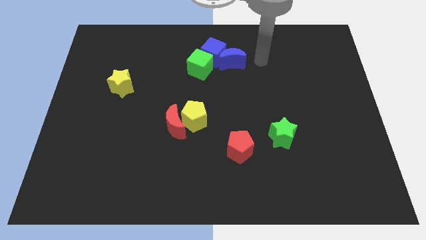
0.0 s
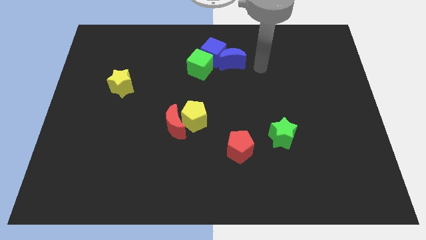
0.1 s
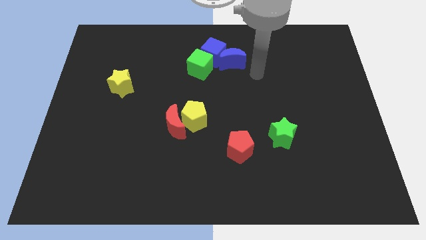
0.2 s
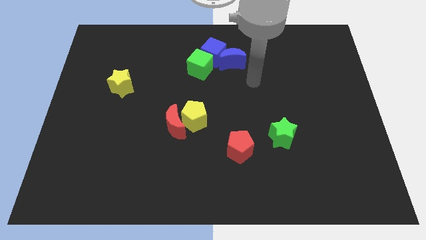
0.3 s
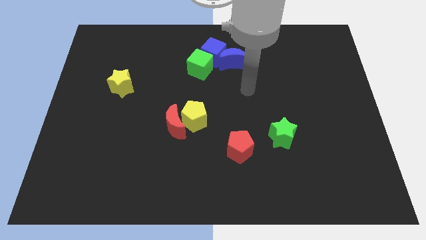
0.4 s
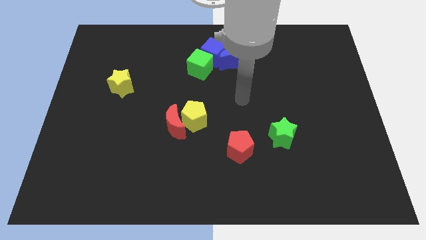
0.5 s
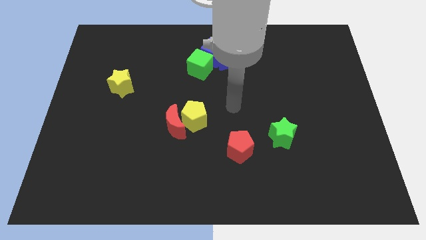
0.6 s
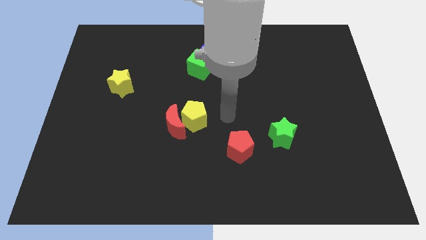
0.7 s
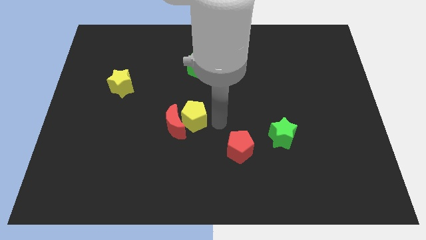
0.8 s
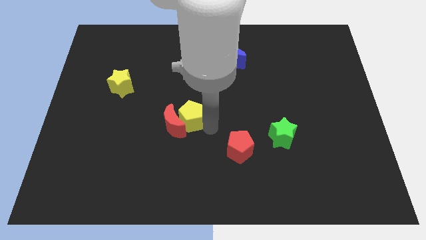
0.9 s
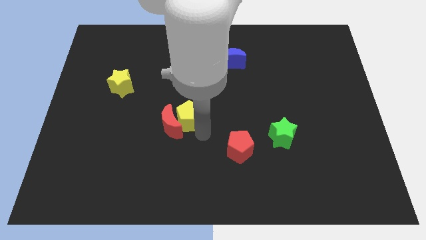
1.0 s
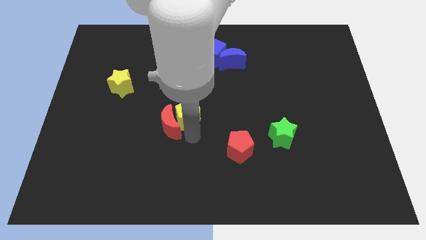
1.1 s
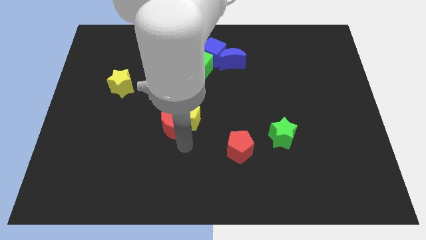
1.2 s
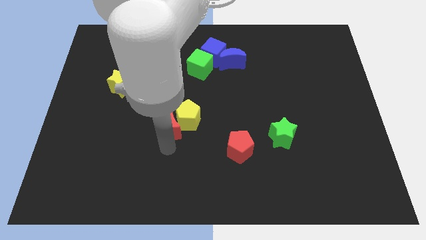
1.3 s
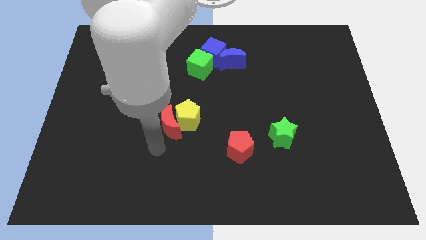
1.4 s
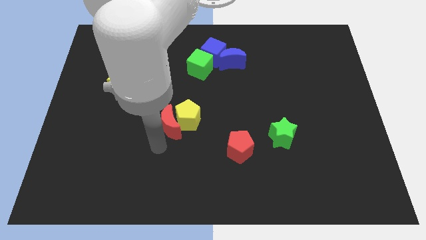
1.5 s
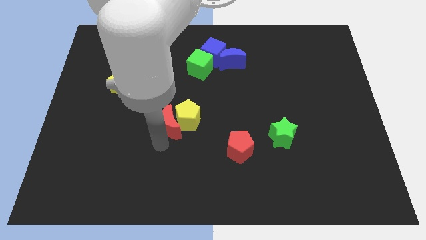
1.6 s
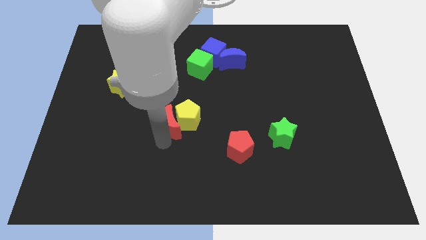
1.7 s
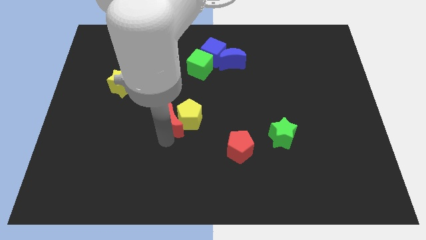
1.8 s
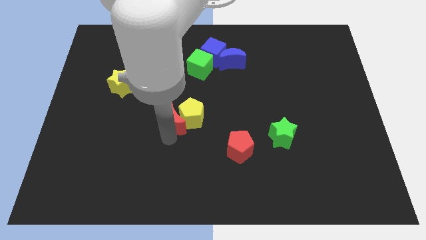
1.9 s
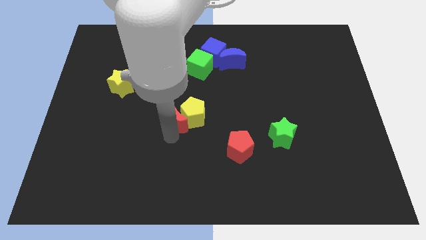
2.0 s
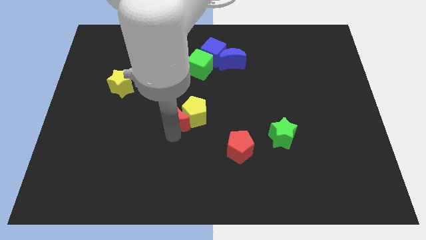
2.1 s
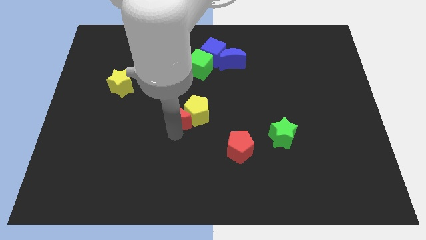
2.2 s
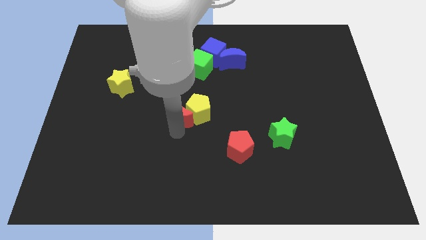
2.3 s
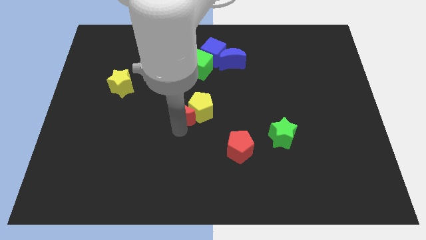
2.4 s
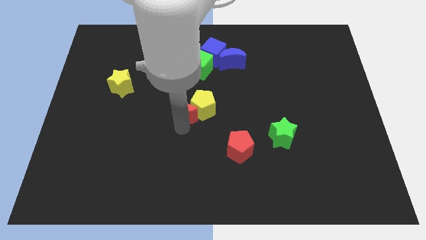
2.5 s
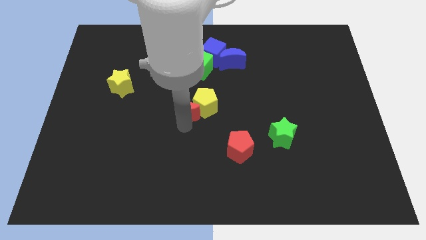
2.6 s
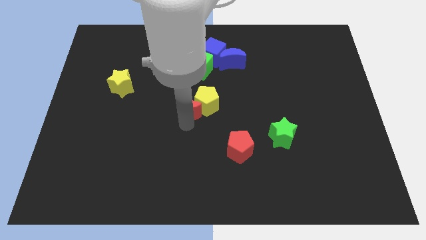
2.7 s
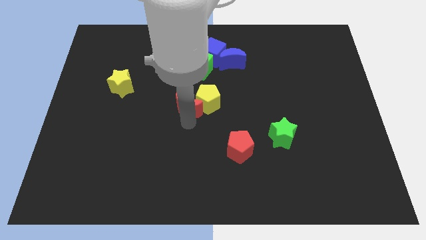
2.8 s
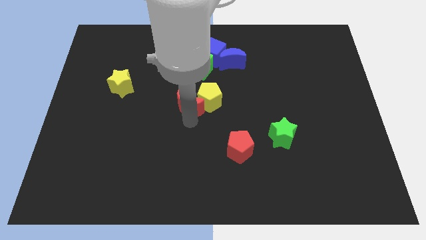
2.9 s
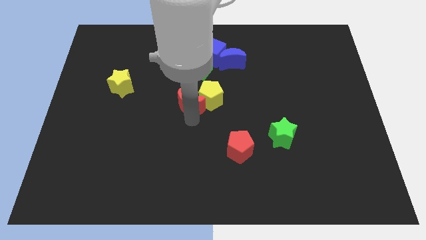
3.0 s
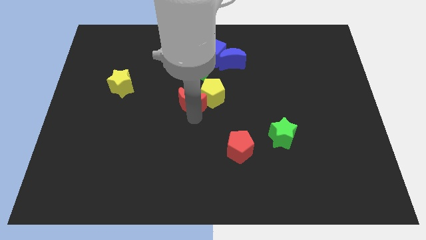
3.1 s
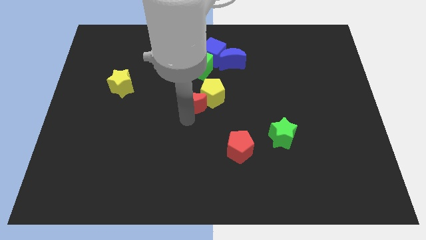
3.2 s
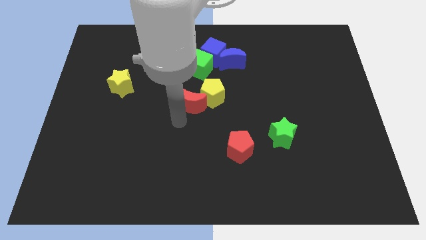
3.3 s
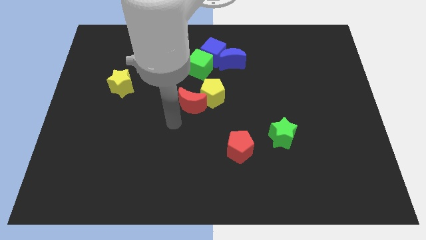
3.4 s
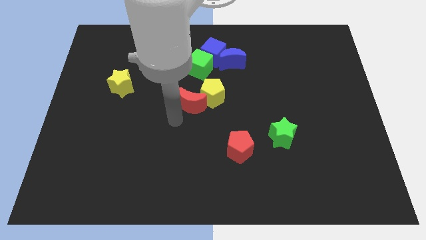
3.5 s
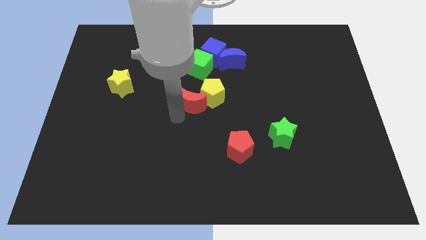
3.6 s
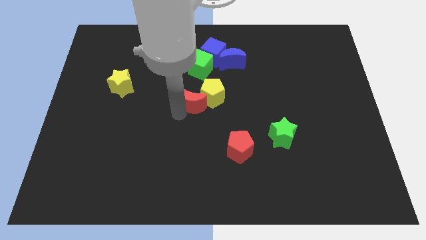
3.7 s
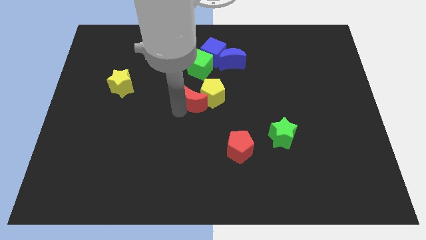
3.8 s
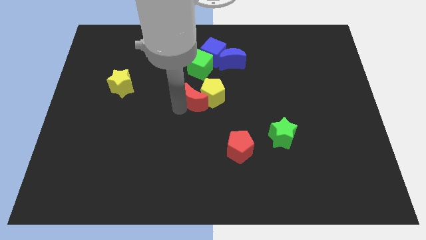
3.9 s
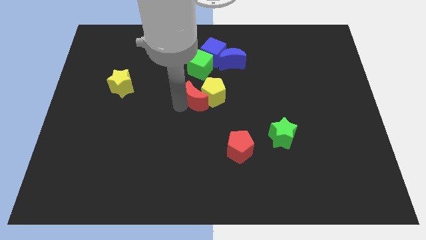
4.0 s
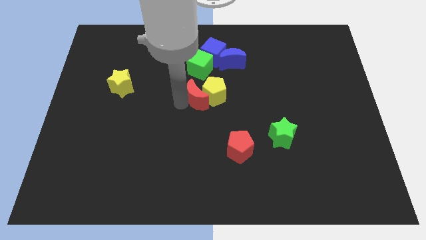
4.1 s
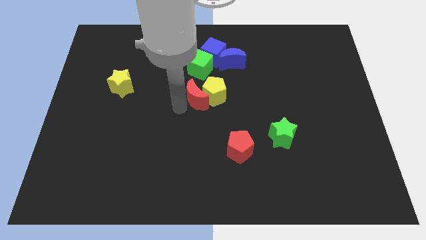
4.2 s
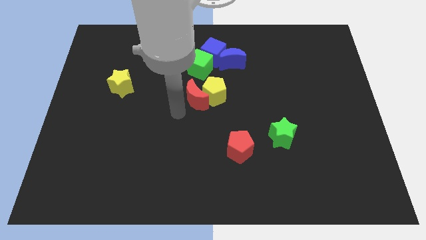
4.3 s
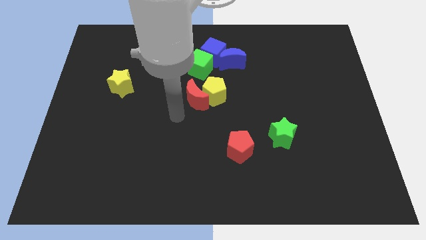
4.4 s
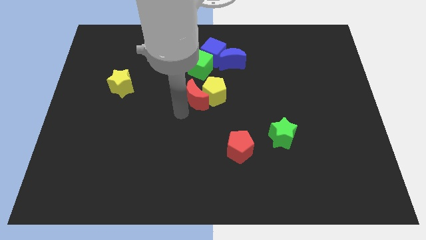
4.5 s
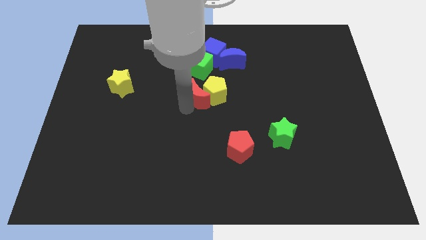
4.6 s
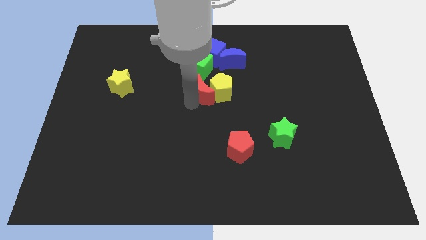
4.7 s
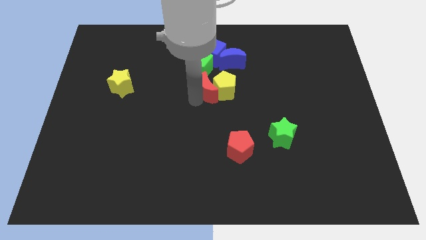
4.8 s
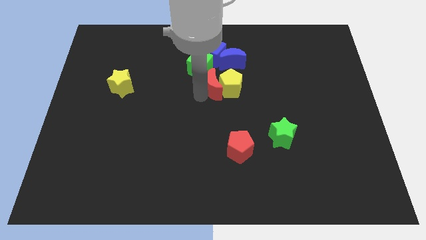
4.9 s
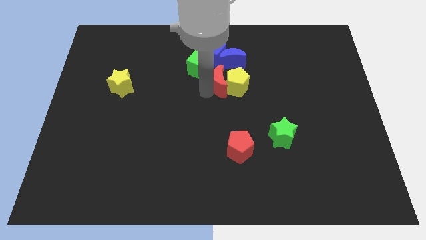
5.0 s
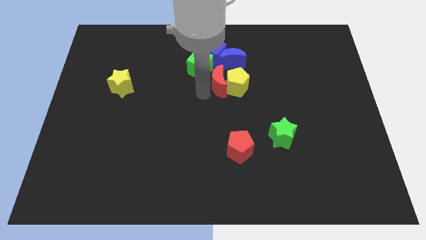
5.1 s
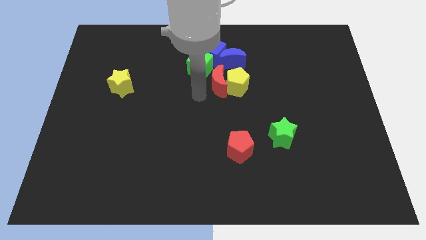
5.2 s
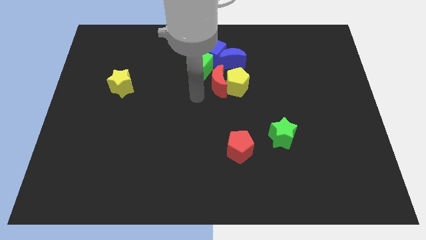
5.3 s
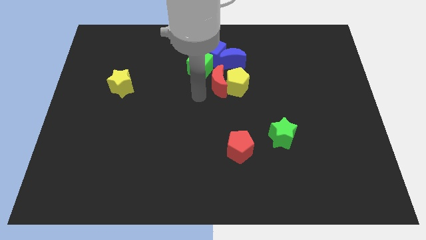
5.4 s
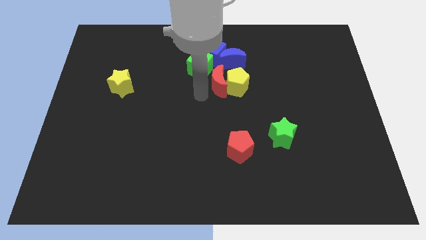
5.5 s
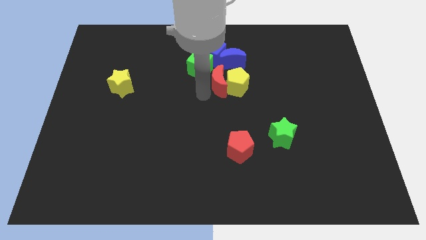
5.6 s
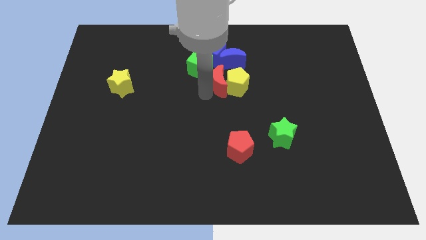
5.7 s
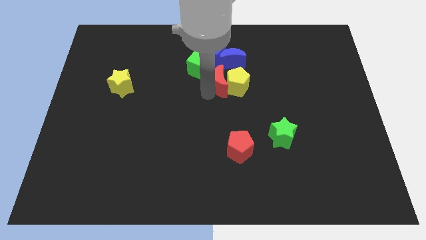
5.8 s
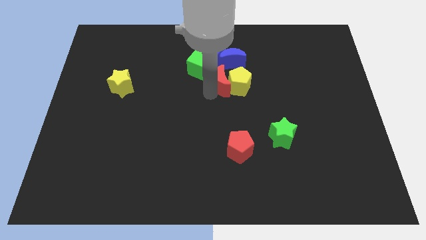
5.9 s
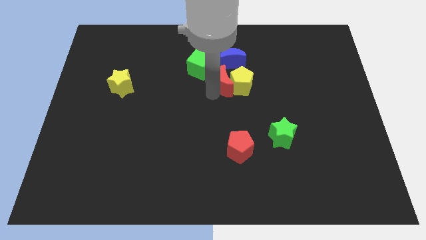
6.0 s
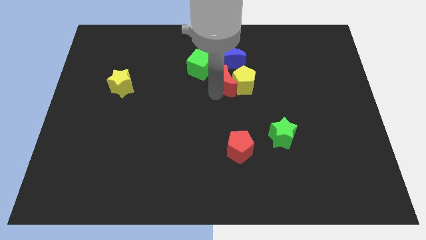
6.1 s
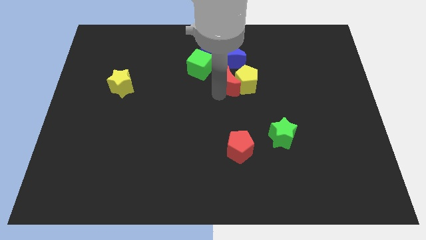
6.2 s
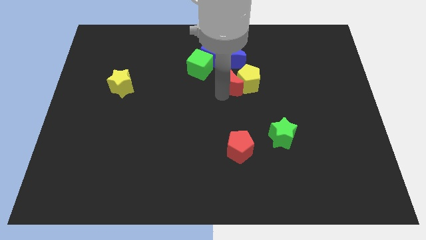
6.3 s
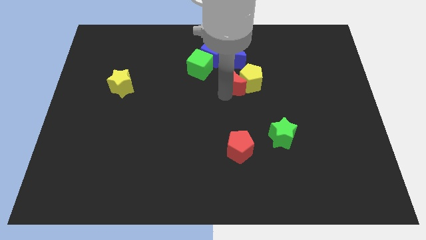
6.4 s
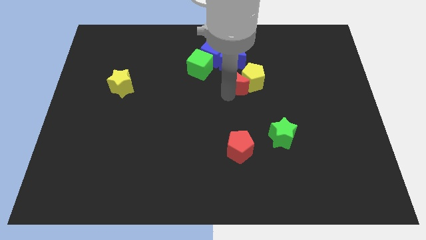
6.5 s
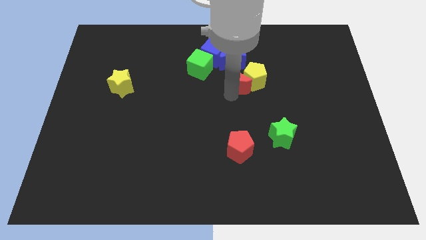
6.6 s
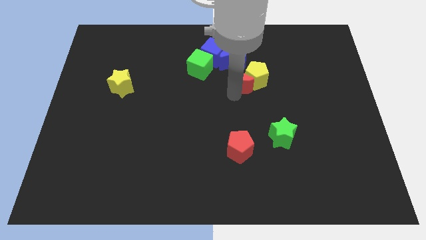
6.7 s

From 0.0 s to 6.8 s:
move the red moon diagonally up and to the right

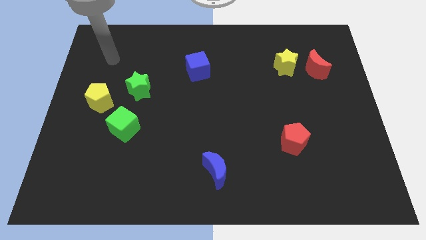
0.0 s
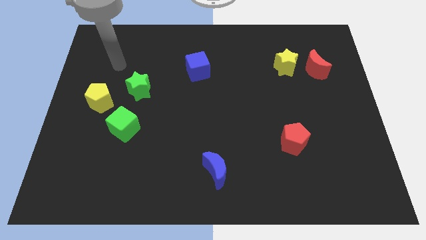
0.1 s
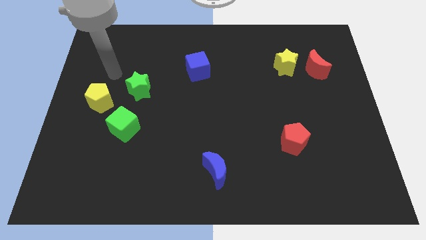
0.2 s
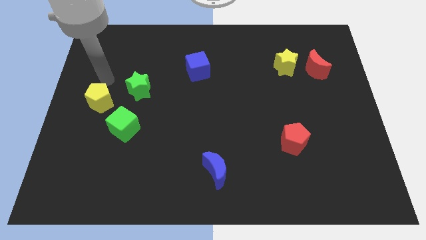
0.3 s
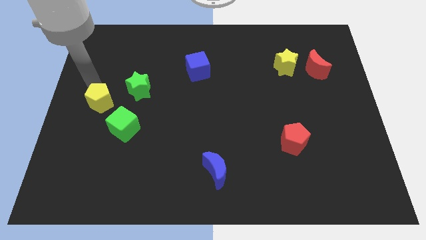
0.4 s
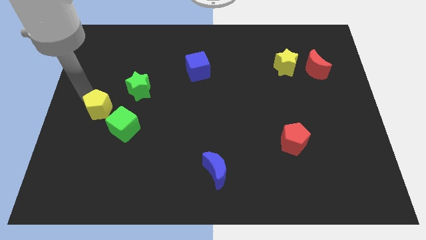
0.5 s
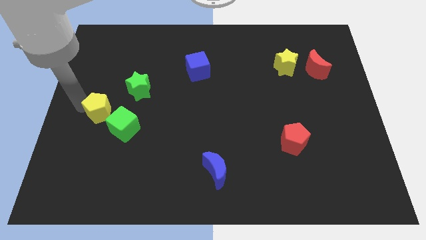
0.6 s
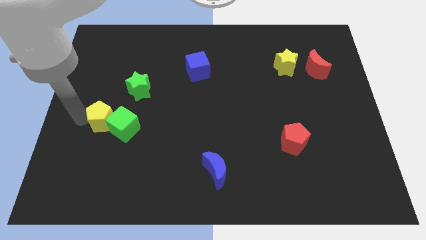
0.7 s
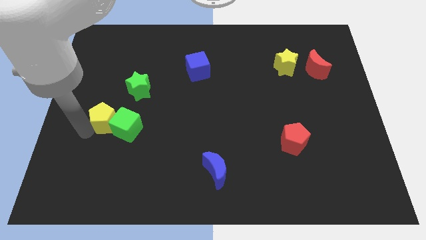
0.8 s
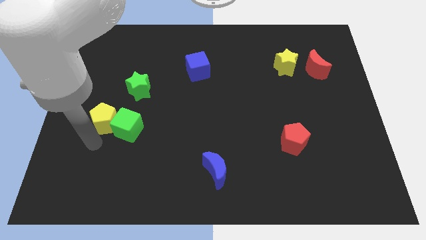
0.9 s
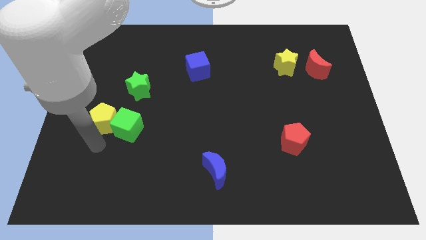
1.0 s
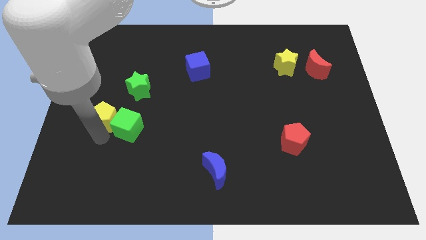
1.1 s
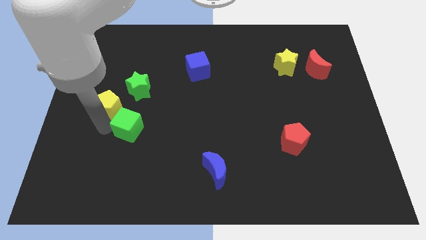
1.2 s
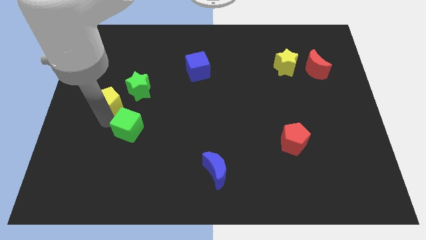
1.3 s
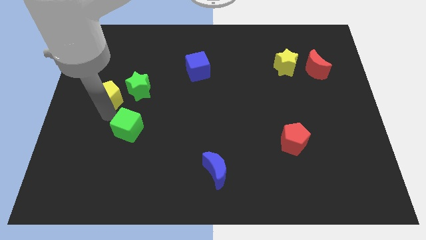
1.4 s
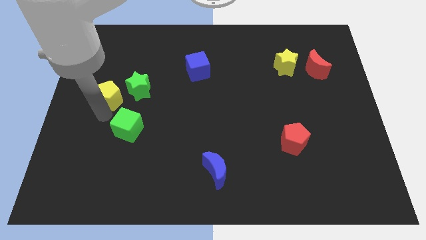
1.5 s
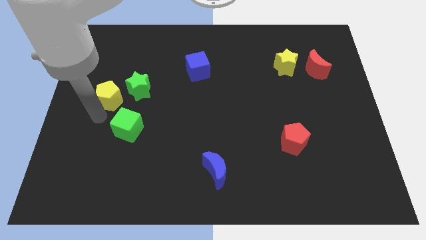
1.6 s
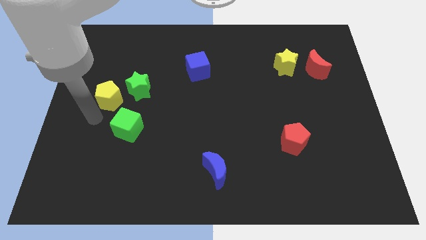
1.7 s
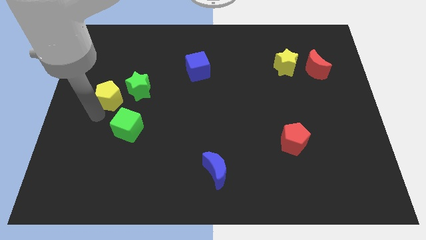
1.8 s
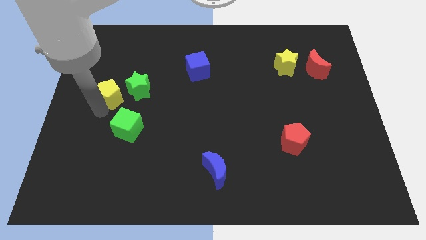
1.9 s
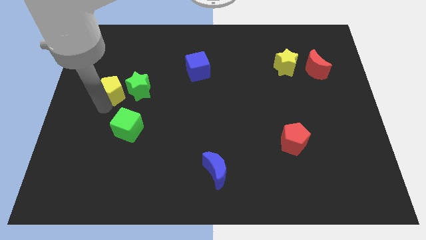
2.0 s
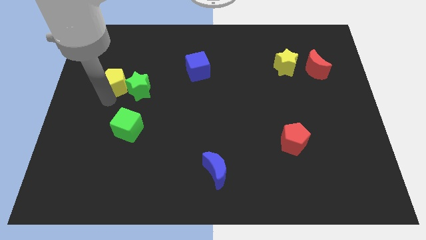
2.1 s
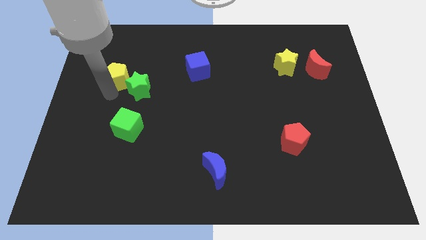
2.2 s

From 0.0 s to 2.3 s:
slide the yellow pentagon up and right a little
